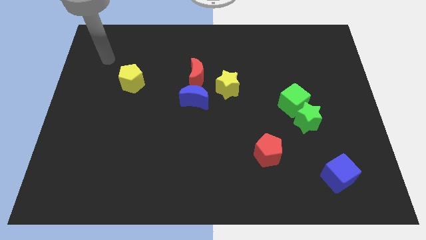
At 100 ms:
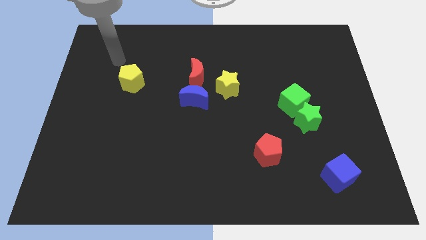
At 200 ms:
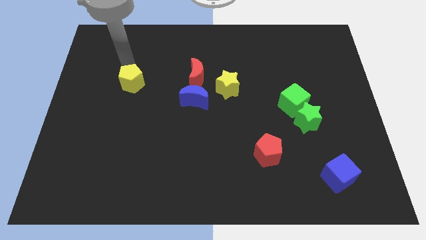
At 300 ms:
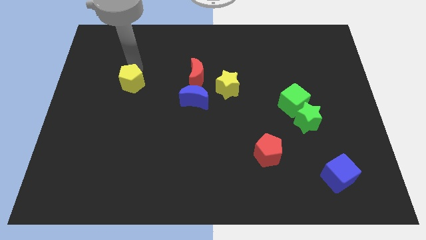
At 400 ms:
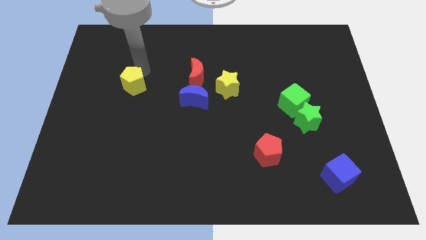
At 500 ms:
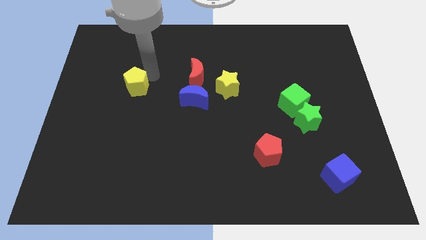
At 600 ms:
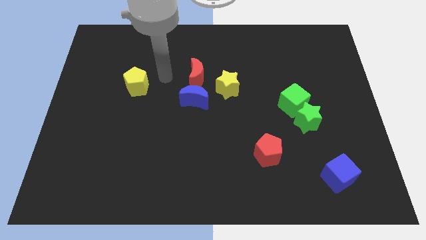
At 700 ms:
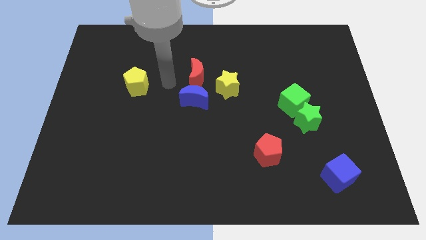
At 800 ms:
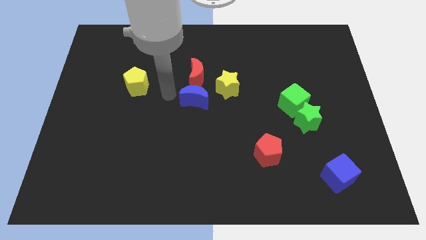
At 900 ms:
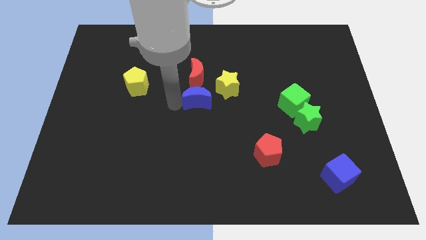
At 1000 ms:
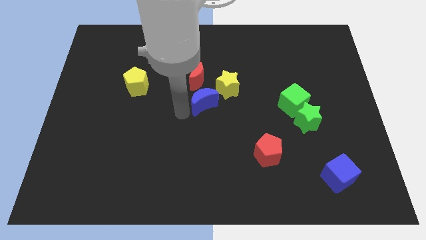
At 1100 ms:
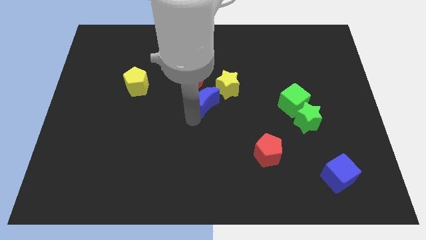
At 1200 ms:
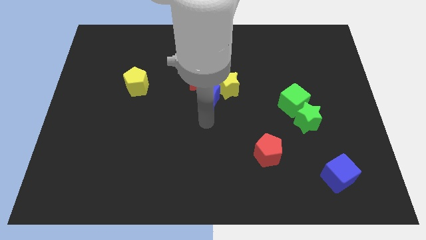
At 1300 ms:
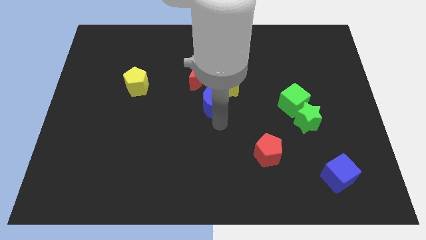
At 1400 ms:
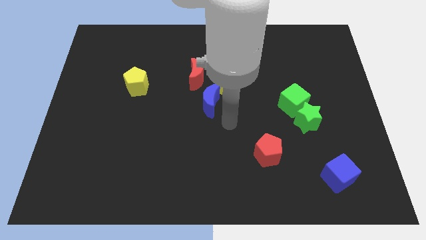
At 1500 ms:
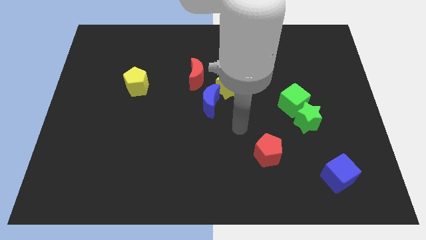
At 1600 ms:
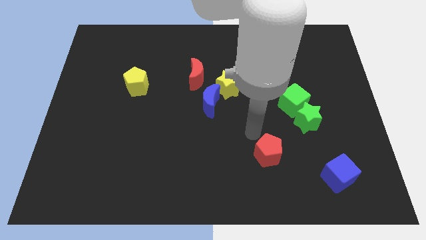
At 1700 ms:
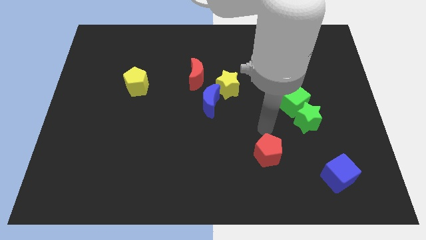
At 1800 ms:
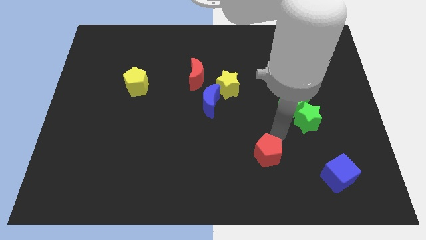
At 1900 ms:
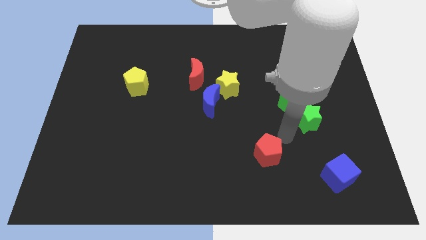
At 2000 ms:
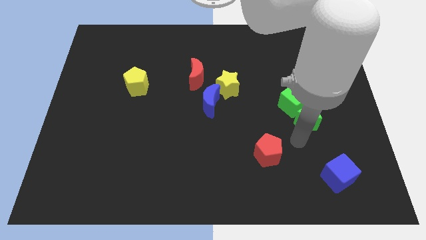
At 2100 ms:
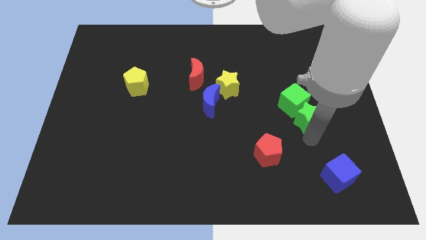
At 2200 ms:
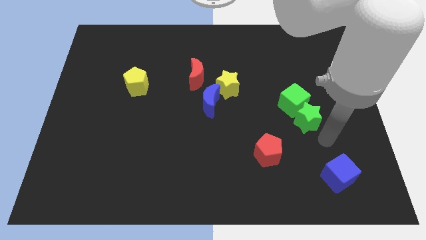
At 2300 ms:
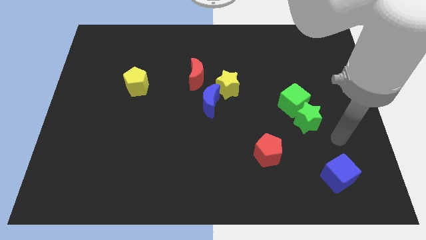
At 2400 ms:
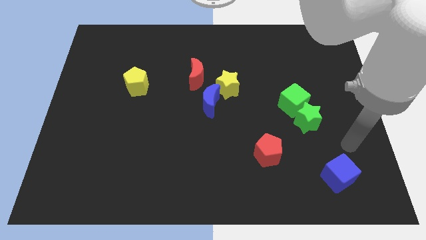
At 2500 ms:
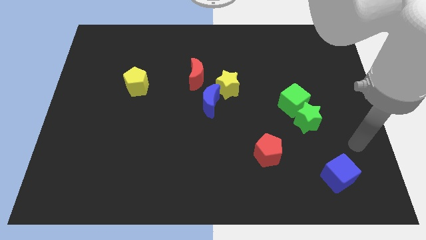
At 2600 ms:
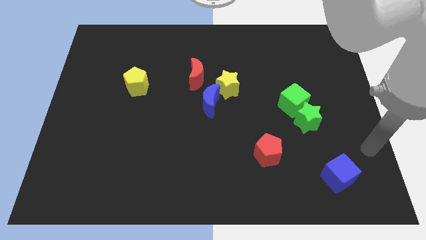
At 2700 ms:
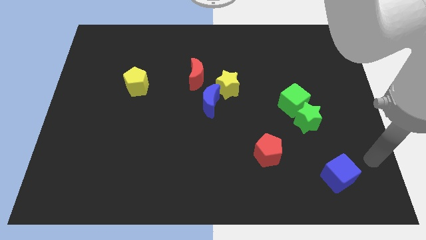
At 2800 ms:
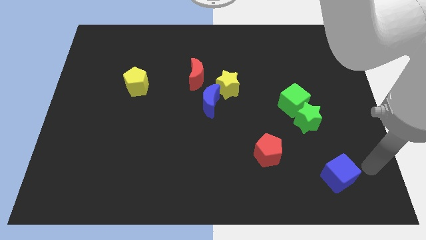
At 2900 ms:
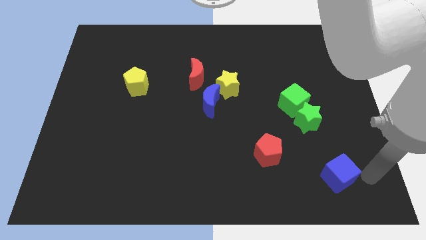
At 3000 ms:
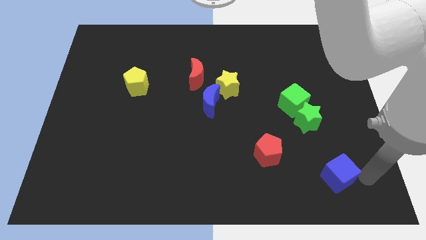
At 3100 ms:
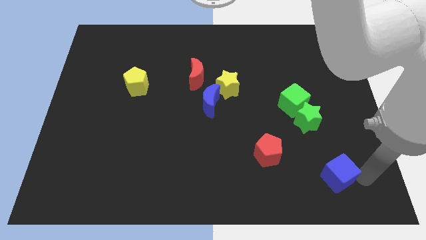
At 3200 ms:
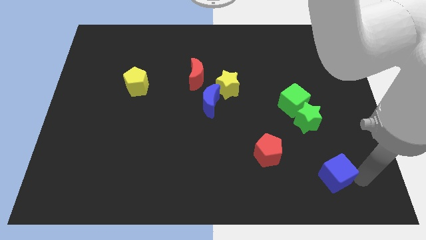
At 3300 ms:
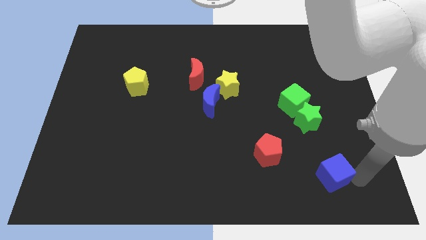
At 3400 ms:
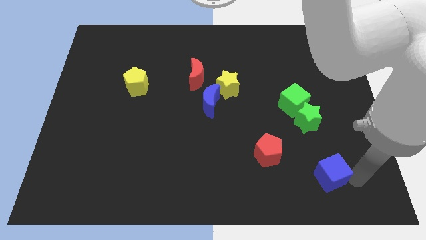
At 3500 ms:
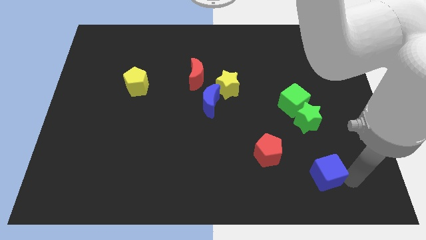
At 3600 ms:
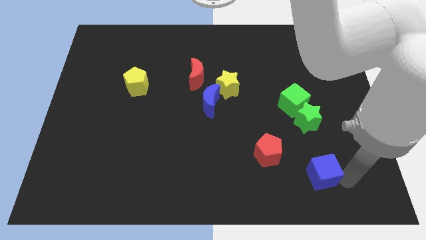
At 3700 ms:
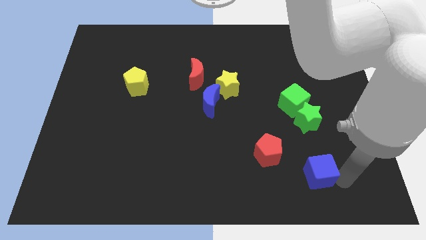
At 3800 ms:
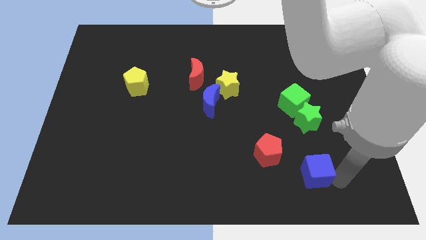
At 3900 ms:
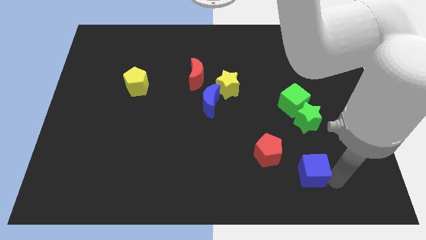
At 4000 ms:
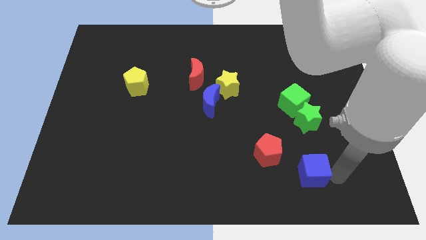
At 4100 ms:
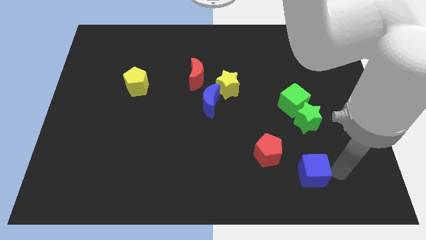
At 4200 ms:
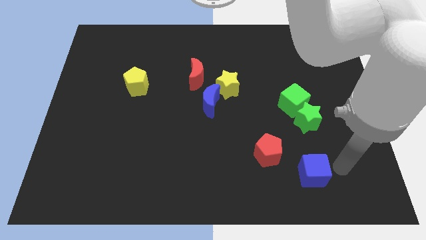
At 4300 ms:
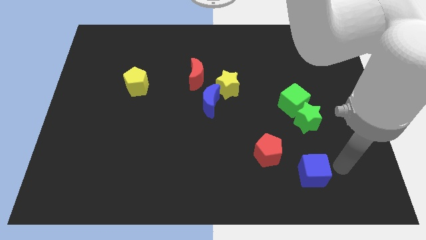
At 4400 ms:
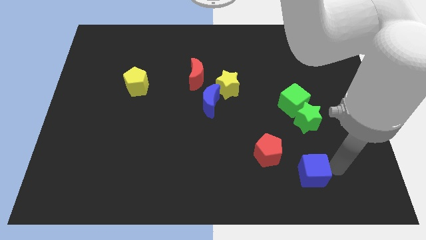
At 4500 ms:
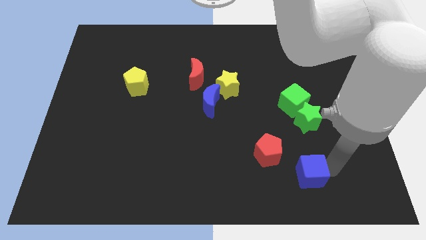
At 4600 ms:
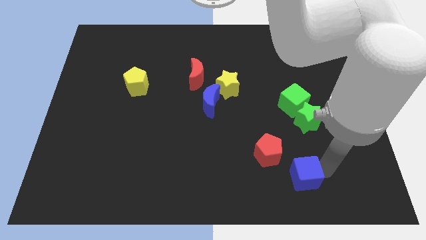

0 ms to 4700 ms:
push the blue cube to the left somewhat

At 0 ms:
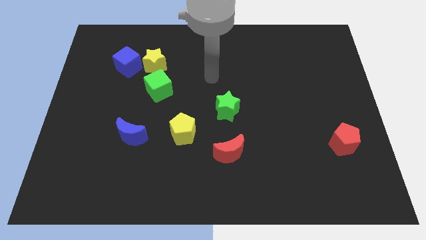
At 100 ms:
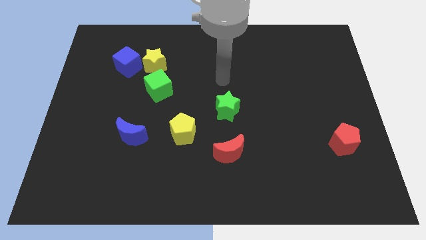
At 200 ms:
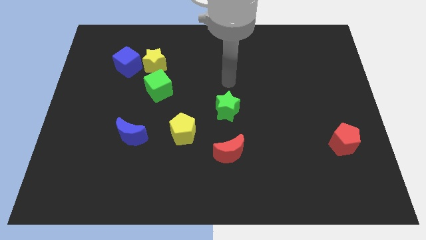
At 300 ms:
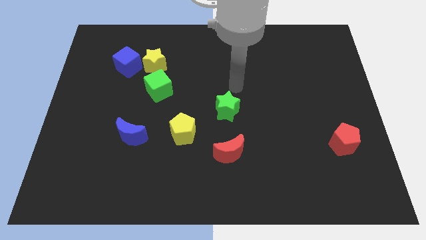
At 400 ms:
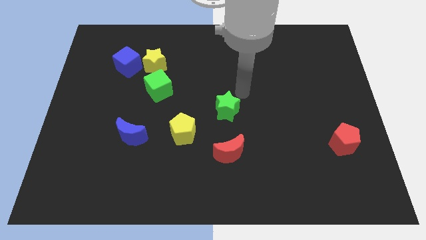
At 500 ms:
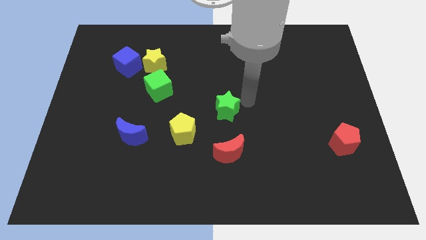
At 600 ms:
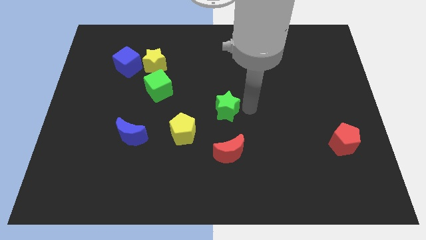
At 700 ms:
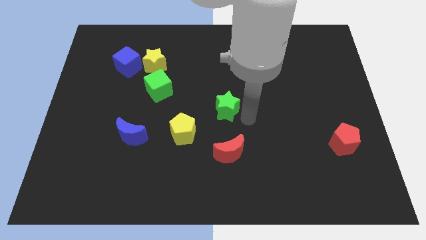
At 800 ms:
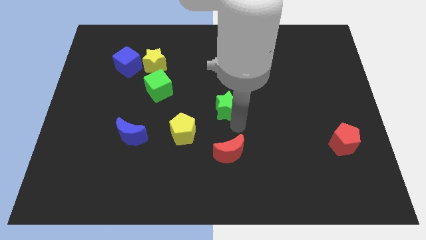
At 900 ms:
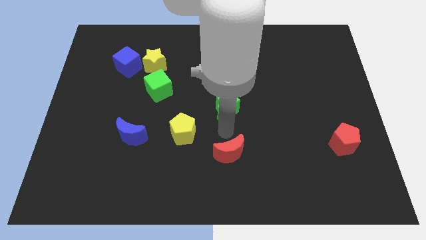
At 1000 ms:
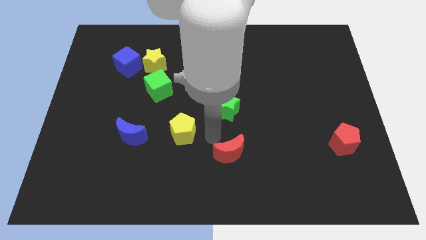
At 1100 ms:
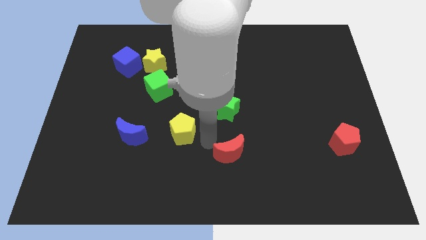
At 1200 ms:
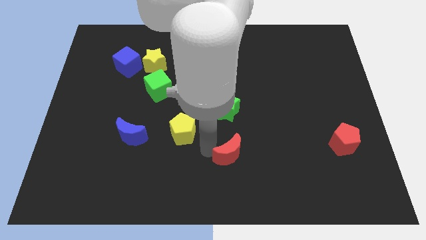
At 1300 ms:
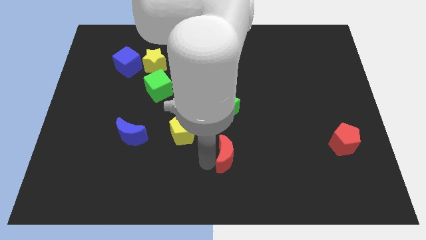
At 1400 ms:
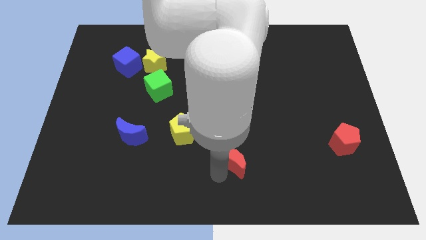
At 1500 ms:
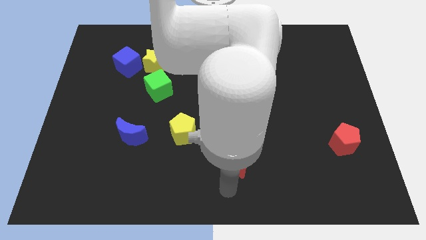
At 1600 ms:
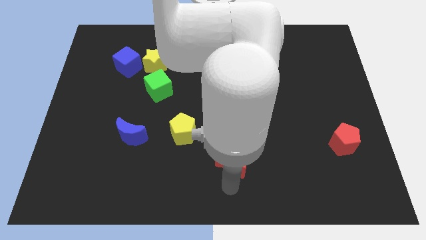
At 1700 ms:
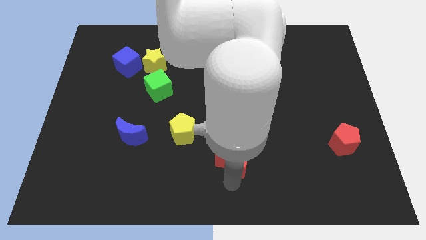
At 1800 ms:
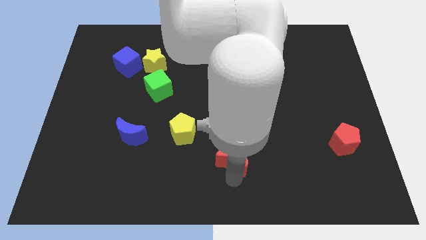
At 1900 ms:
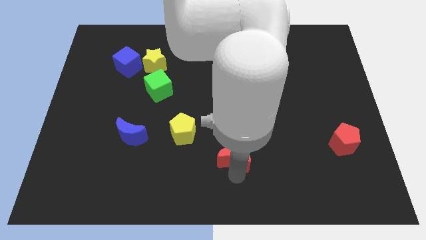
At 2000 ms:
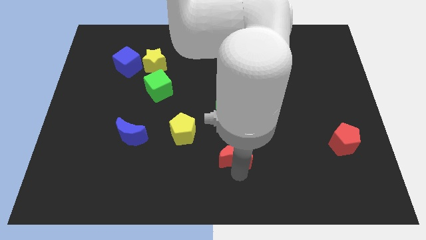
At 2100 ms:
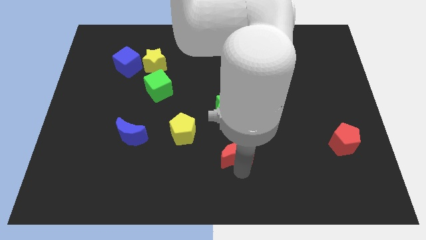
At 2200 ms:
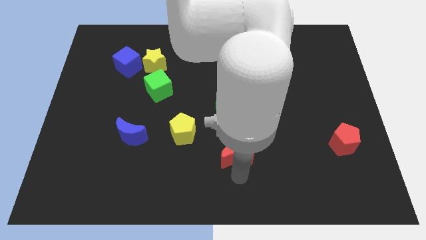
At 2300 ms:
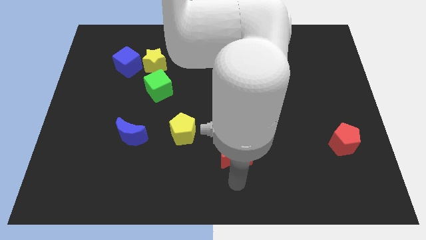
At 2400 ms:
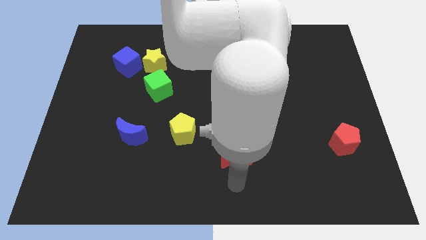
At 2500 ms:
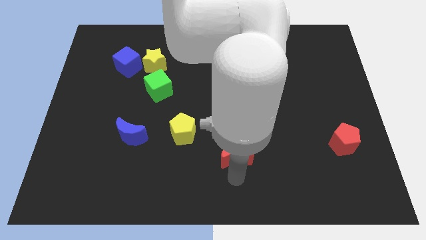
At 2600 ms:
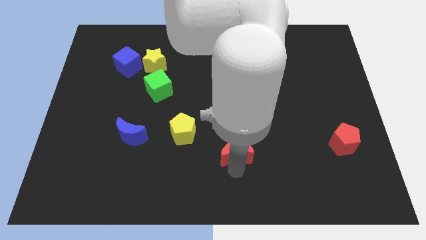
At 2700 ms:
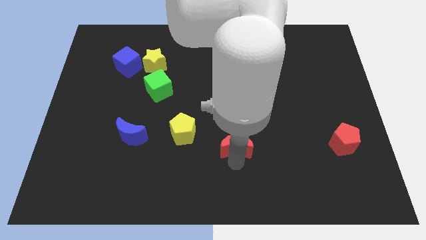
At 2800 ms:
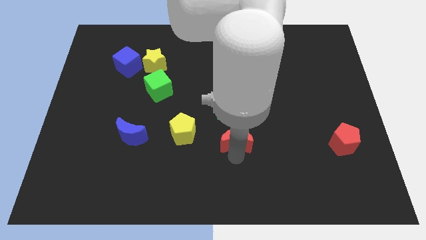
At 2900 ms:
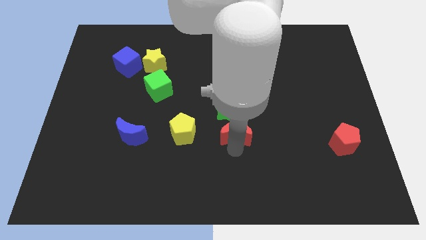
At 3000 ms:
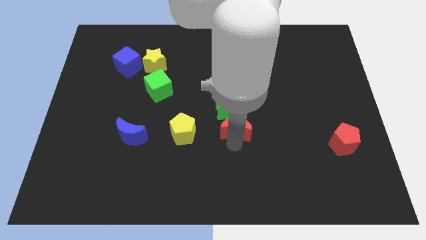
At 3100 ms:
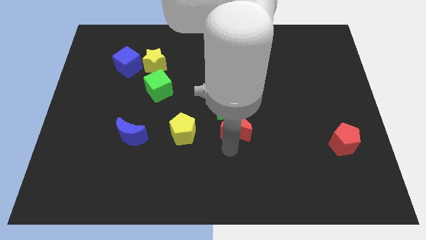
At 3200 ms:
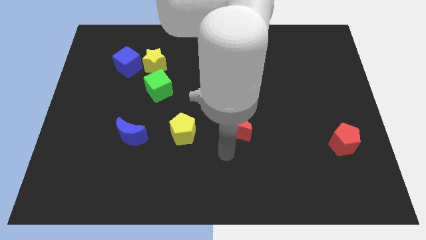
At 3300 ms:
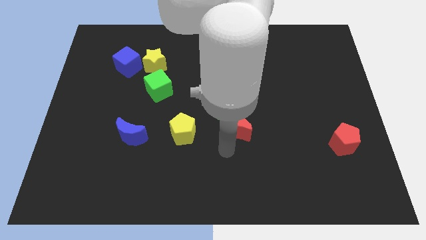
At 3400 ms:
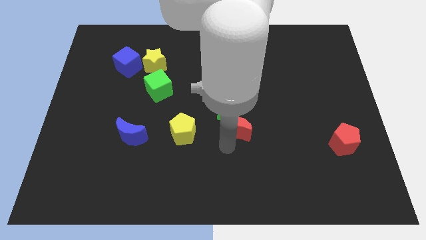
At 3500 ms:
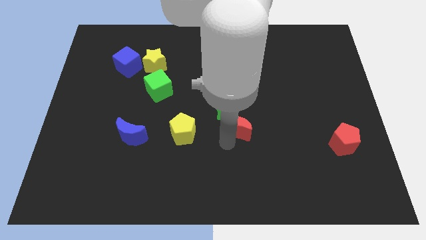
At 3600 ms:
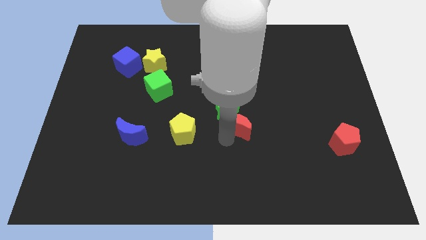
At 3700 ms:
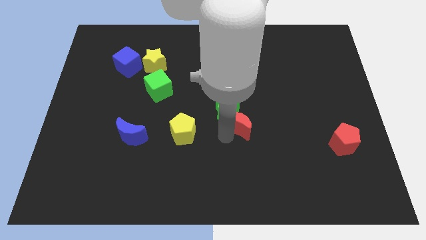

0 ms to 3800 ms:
move the red moon a bit up
